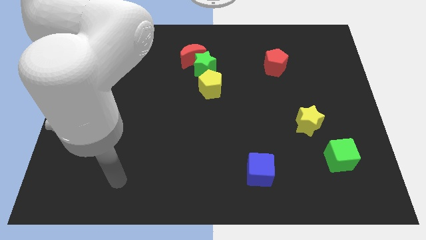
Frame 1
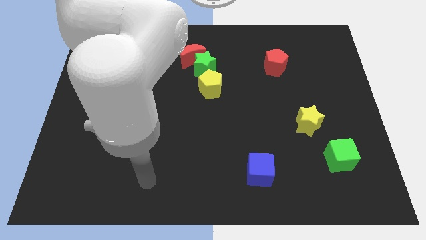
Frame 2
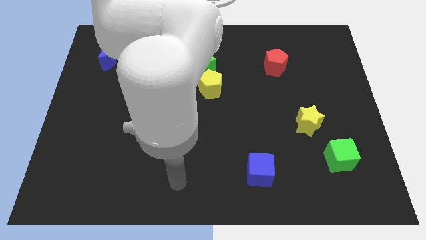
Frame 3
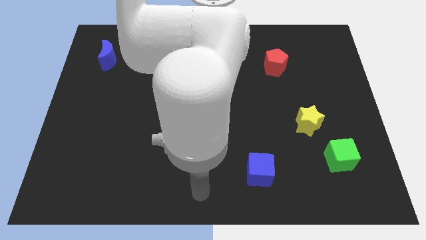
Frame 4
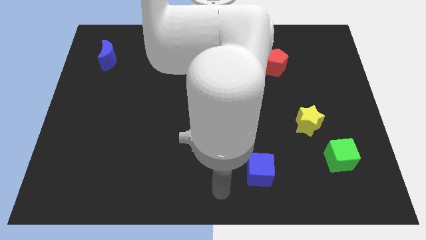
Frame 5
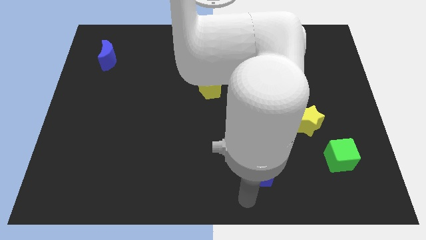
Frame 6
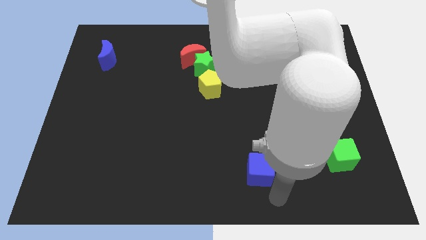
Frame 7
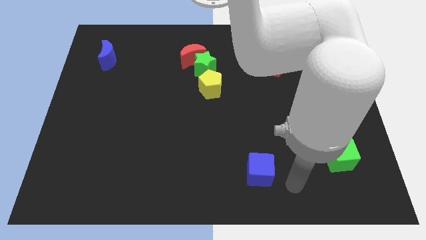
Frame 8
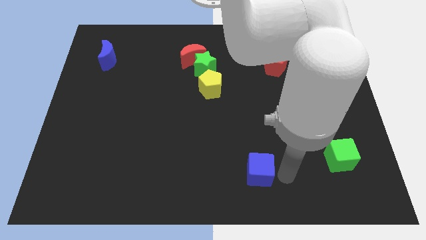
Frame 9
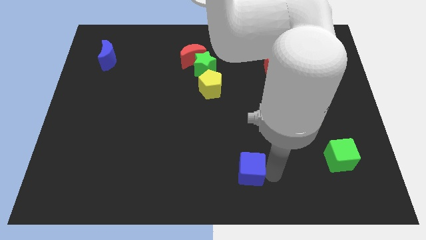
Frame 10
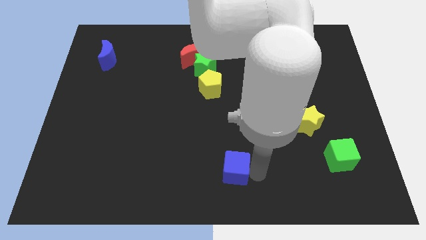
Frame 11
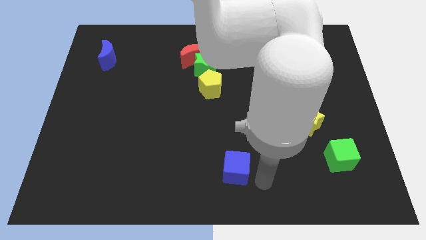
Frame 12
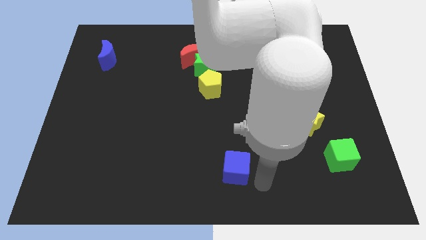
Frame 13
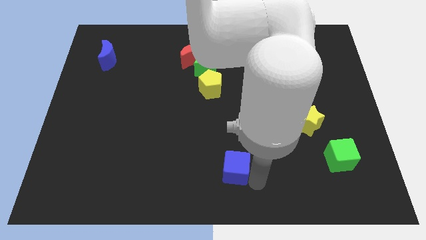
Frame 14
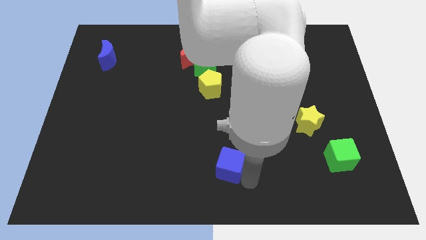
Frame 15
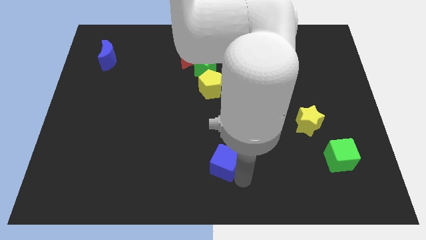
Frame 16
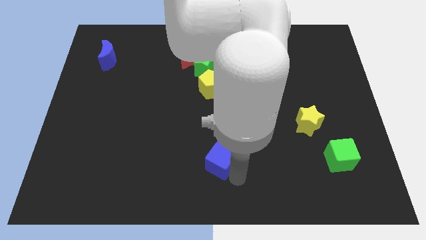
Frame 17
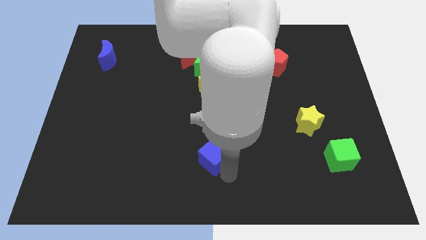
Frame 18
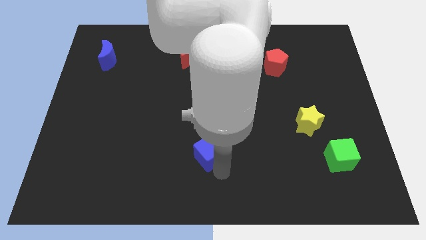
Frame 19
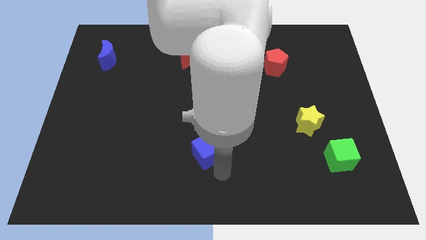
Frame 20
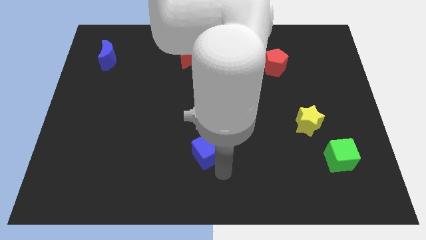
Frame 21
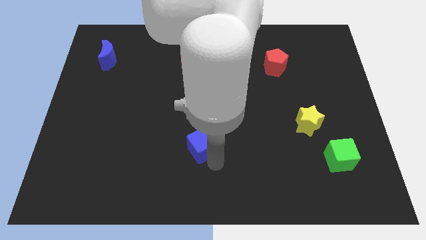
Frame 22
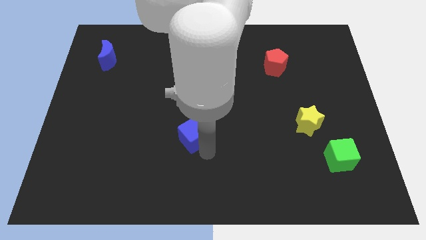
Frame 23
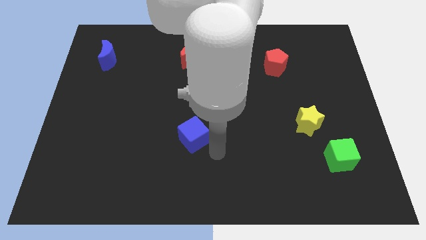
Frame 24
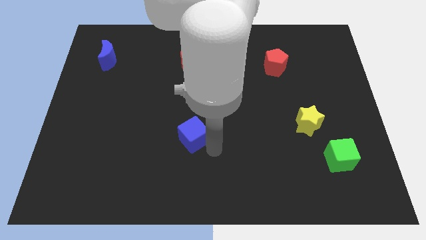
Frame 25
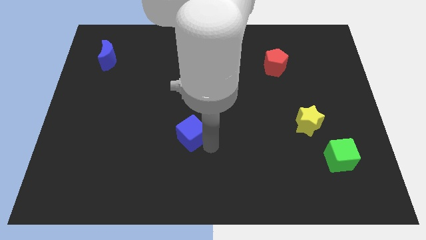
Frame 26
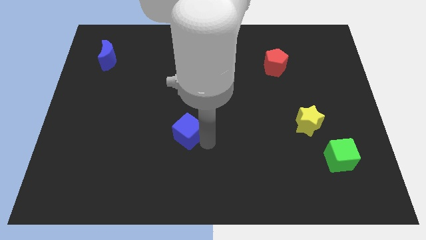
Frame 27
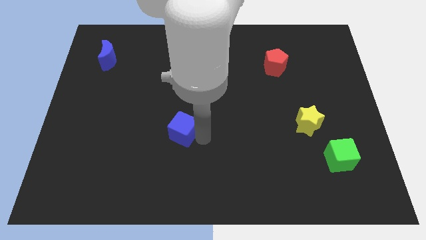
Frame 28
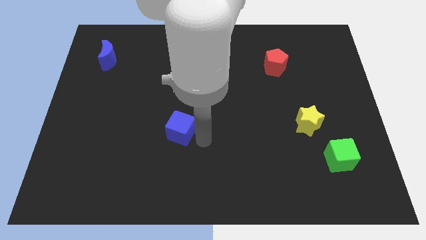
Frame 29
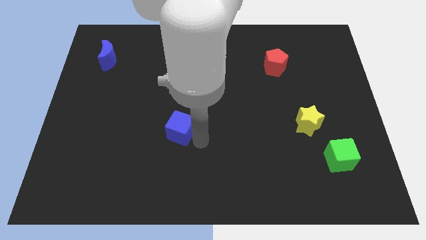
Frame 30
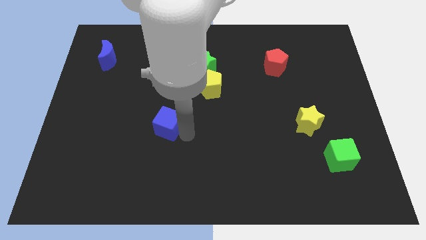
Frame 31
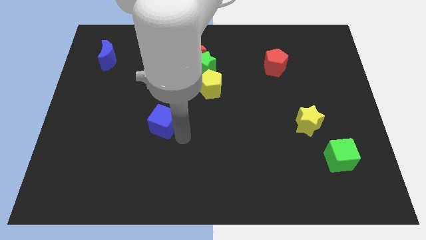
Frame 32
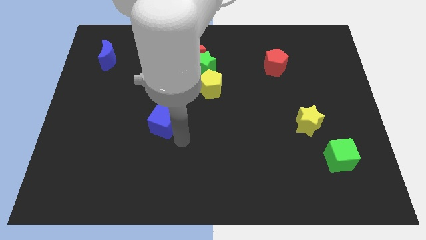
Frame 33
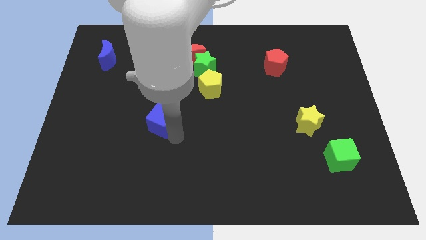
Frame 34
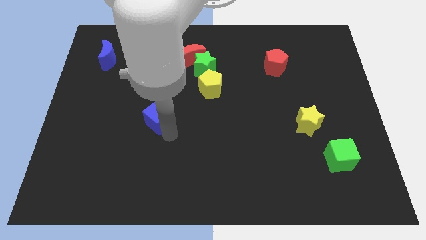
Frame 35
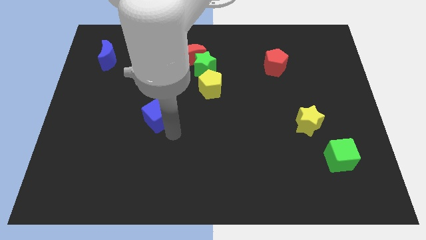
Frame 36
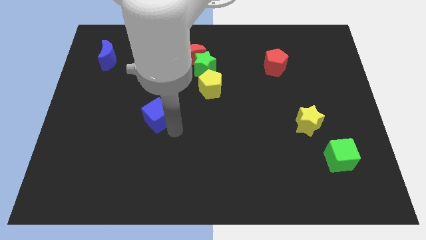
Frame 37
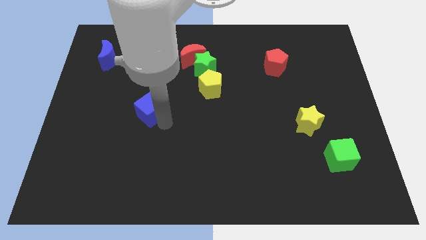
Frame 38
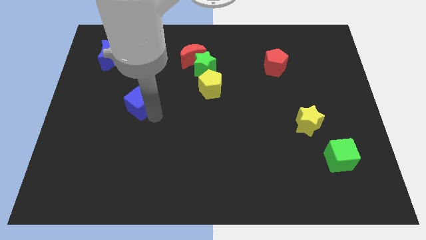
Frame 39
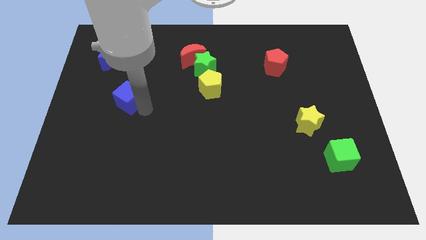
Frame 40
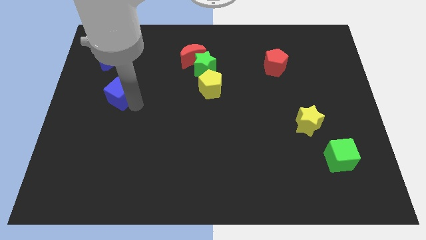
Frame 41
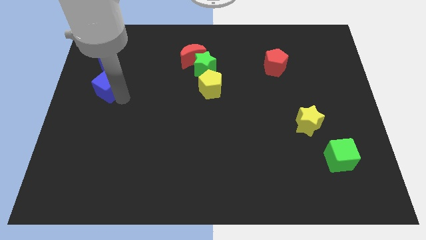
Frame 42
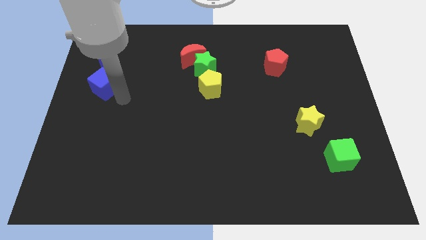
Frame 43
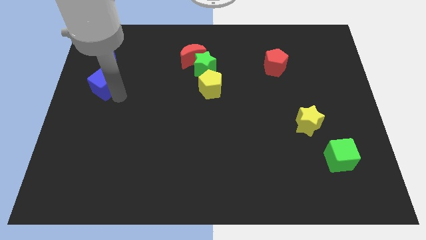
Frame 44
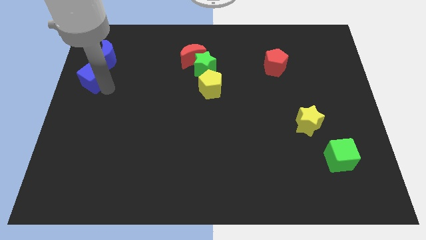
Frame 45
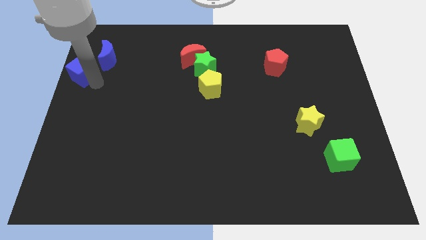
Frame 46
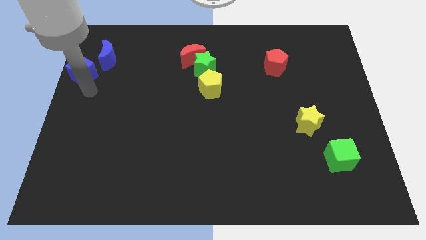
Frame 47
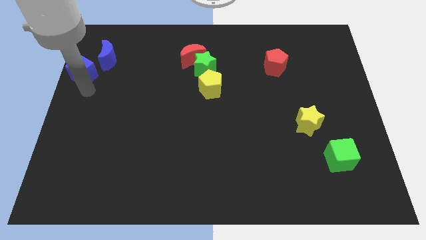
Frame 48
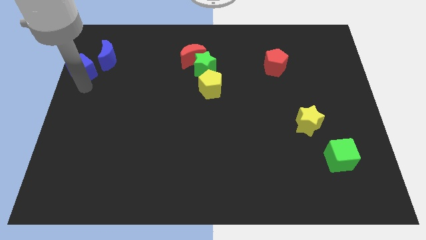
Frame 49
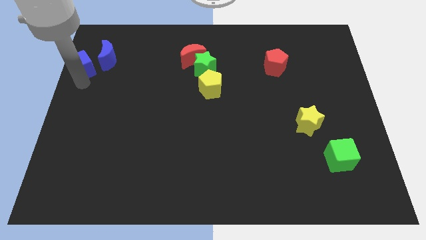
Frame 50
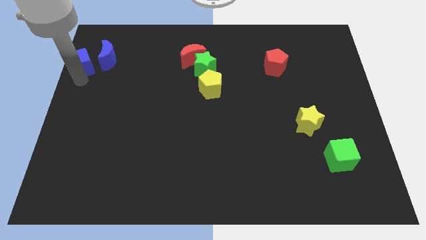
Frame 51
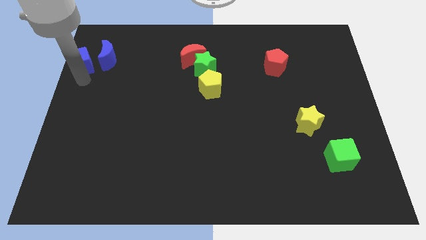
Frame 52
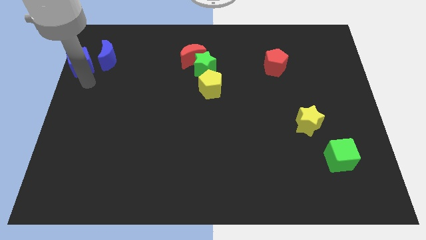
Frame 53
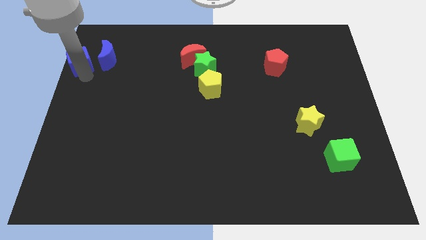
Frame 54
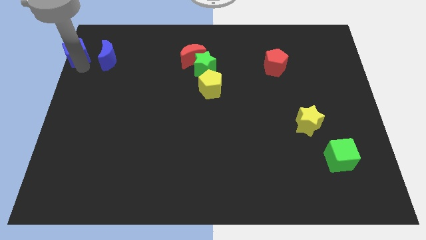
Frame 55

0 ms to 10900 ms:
move the blue cube to the top left of the board

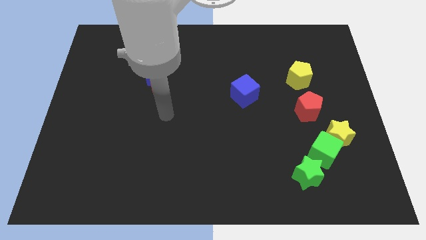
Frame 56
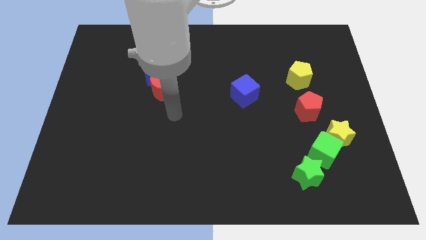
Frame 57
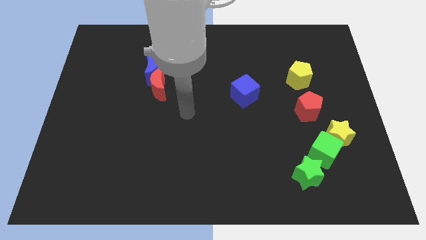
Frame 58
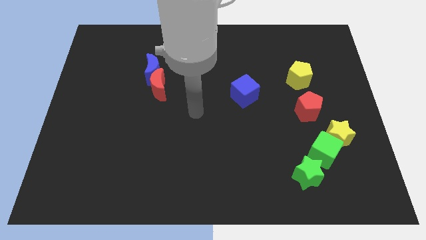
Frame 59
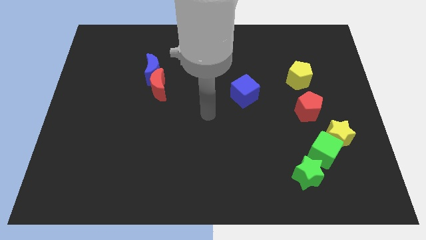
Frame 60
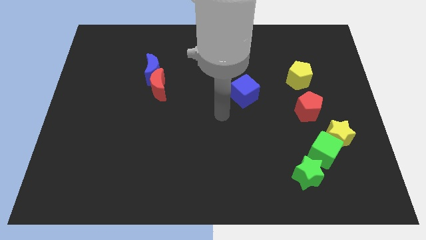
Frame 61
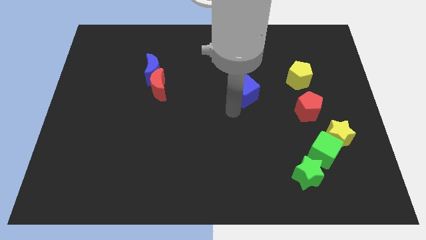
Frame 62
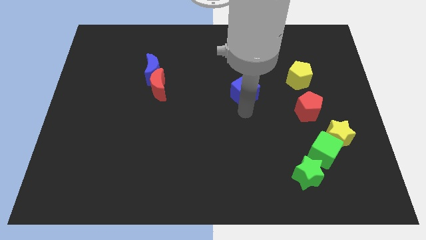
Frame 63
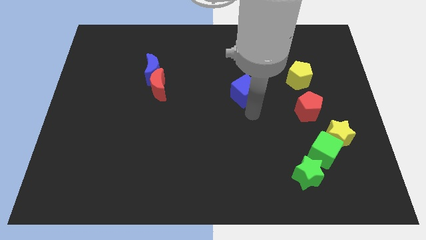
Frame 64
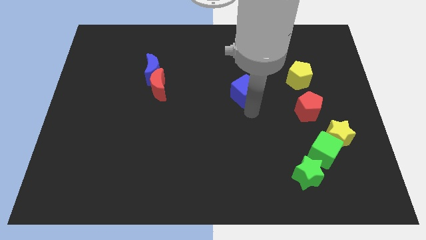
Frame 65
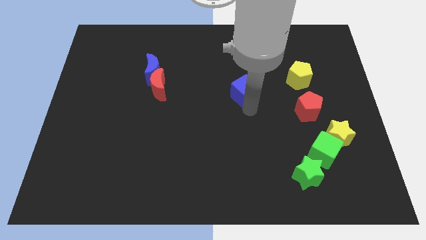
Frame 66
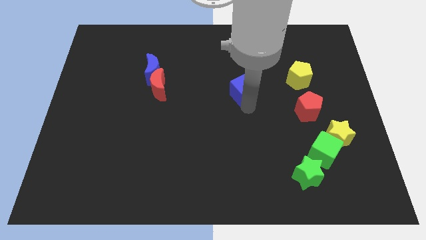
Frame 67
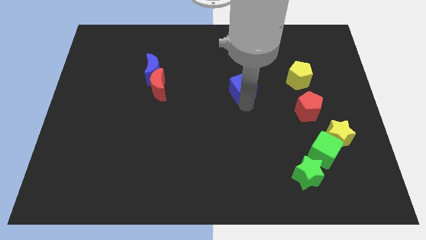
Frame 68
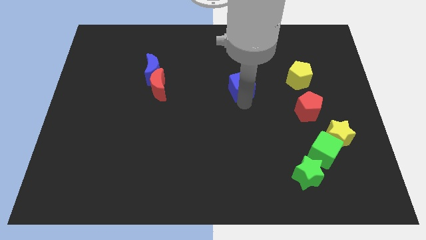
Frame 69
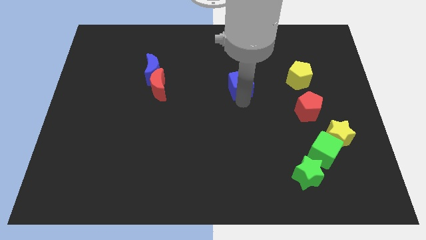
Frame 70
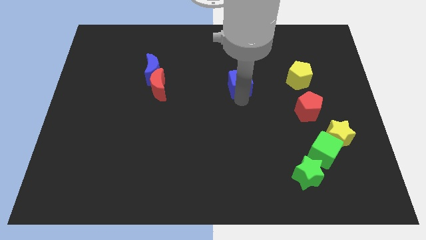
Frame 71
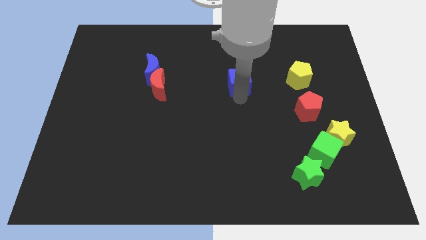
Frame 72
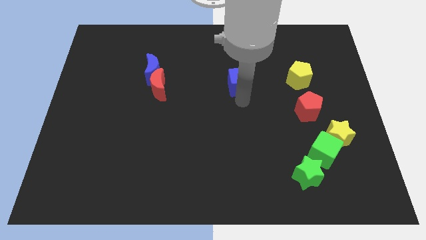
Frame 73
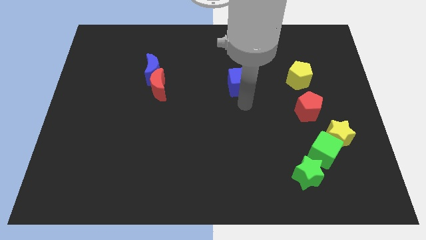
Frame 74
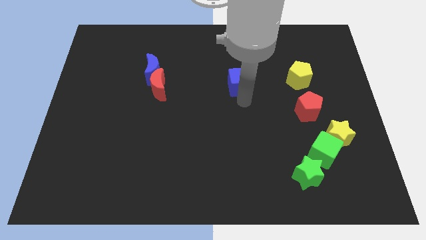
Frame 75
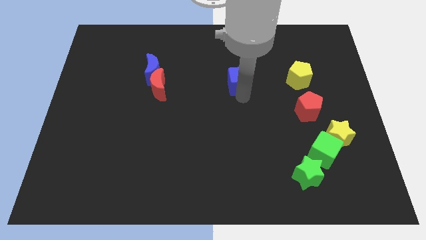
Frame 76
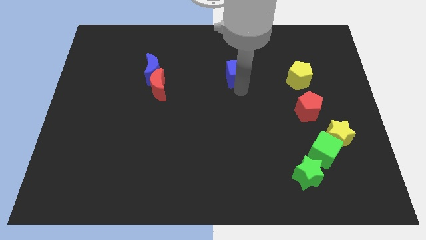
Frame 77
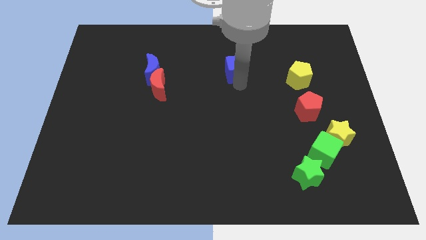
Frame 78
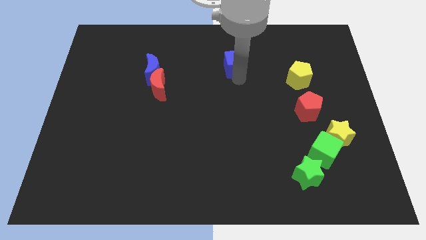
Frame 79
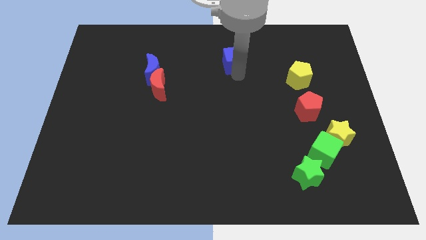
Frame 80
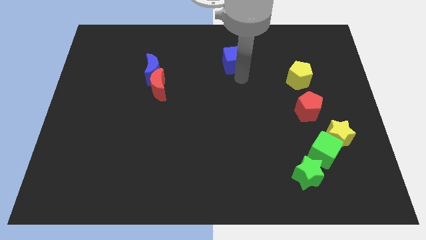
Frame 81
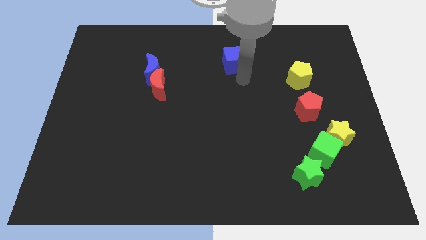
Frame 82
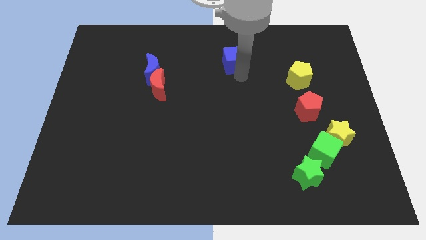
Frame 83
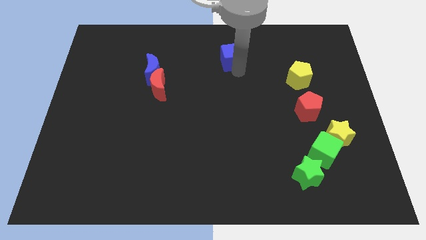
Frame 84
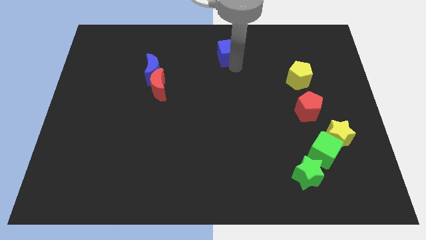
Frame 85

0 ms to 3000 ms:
put the blue cube to the top side
